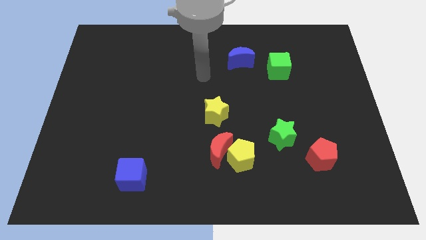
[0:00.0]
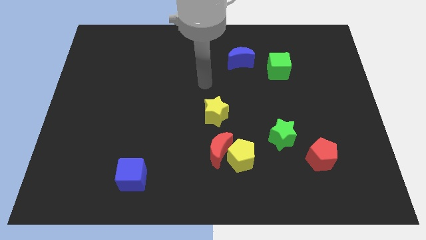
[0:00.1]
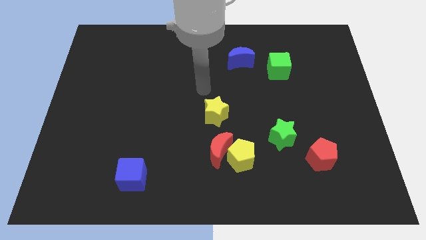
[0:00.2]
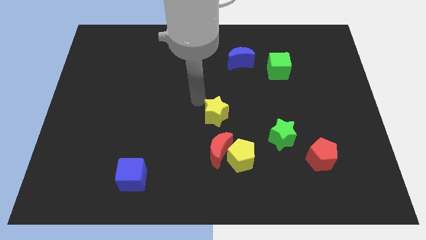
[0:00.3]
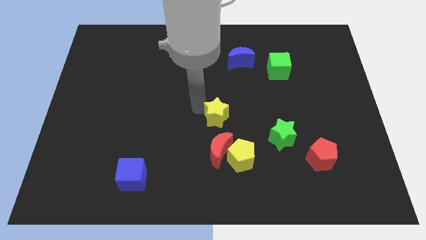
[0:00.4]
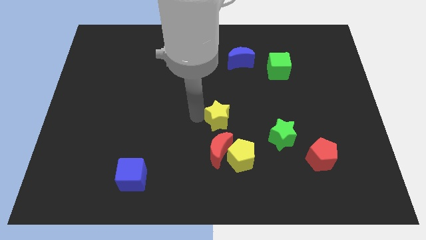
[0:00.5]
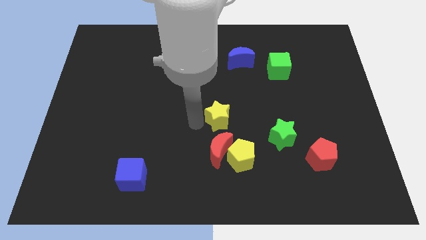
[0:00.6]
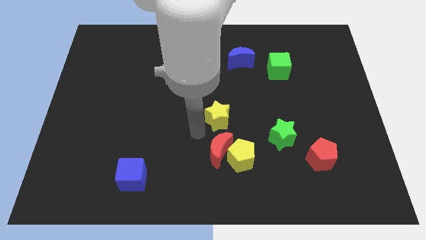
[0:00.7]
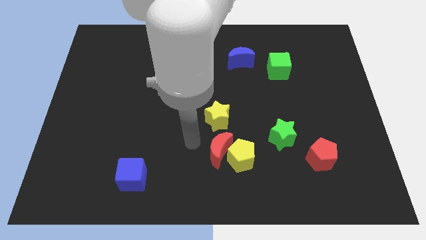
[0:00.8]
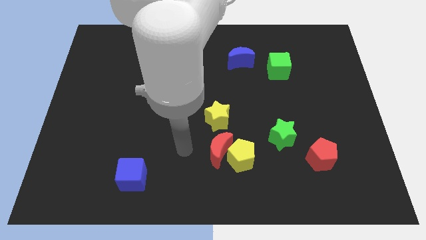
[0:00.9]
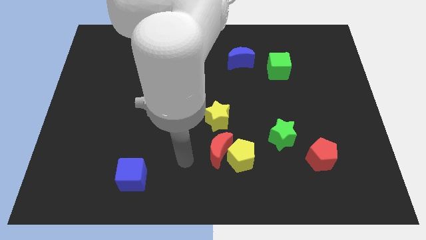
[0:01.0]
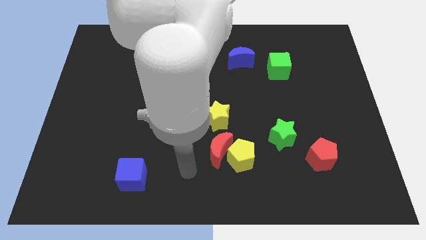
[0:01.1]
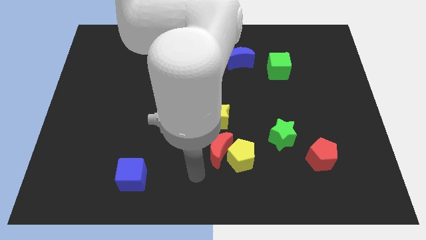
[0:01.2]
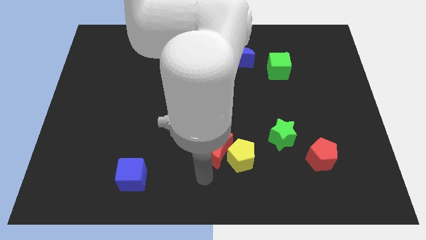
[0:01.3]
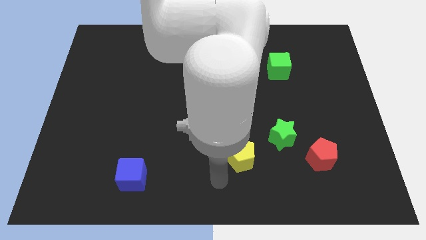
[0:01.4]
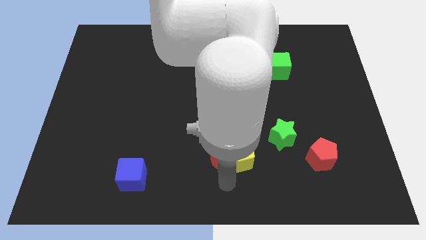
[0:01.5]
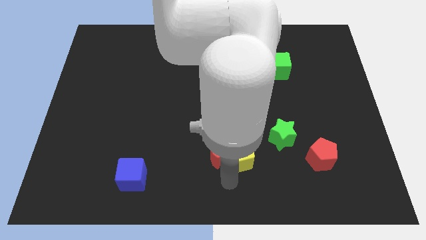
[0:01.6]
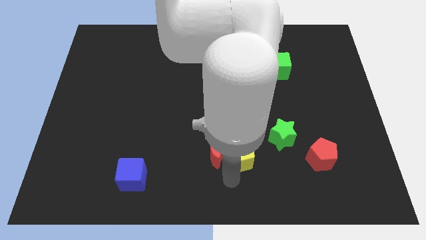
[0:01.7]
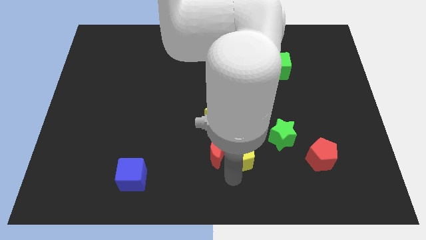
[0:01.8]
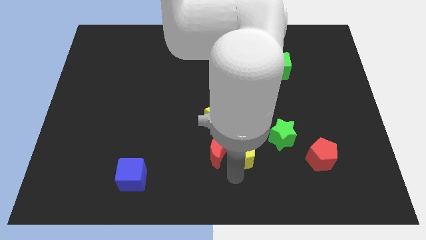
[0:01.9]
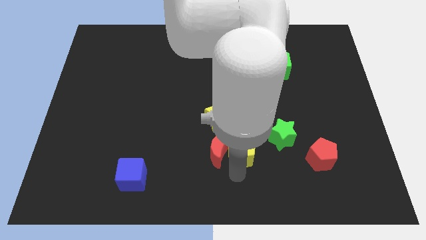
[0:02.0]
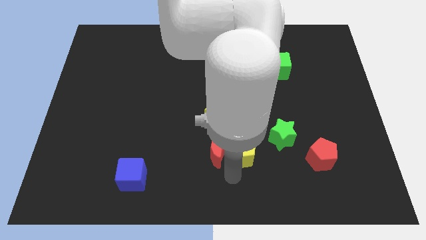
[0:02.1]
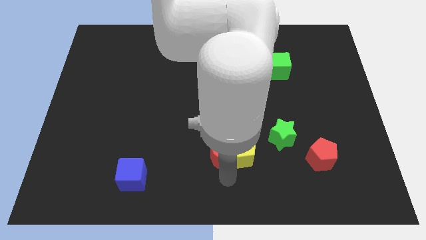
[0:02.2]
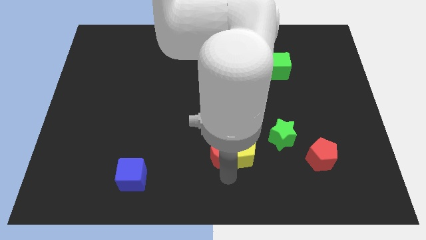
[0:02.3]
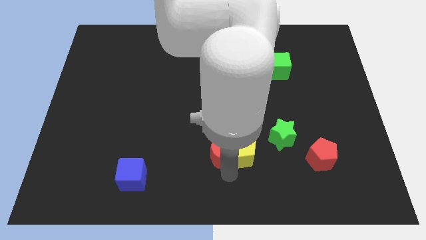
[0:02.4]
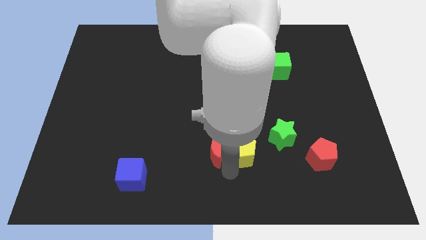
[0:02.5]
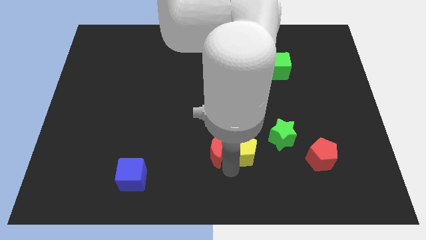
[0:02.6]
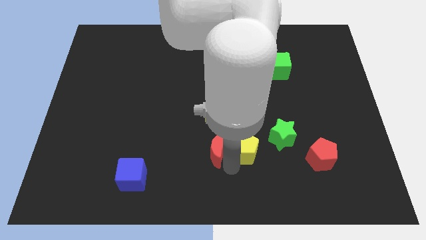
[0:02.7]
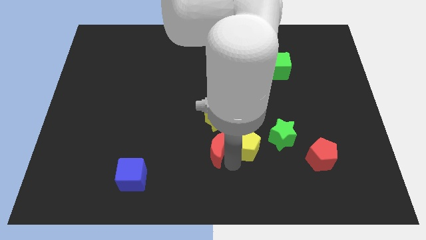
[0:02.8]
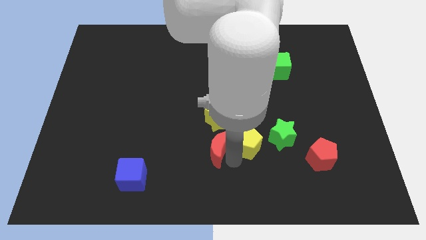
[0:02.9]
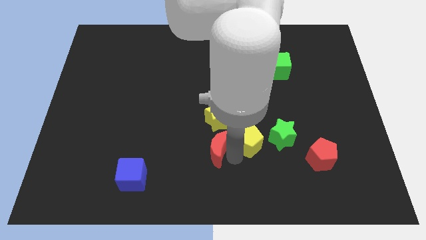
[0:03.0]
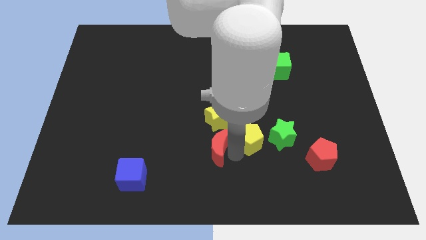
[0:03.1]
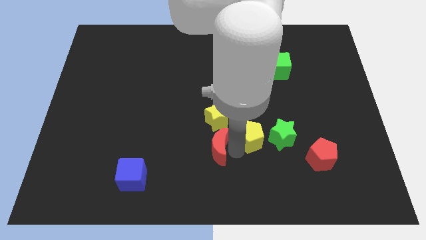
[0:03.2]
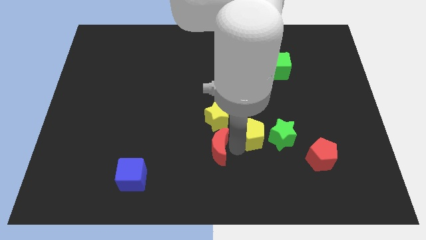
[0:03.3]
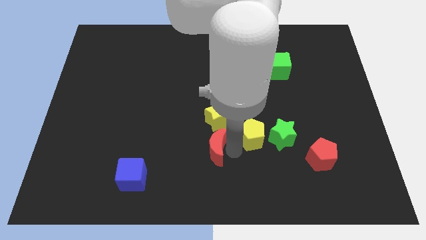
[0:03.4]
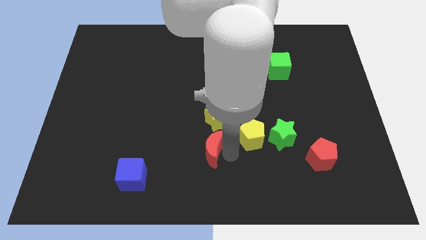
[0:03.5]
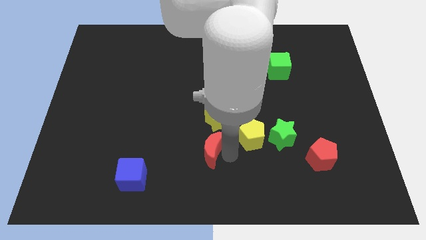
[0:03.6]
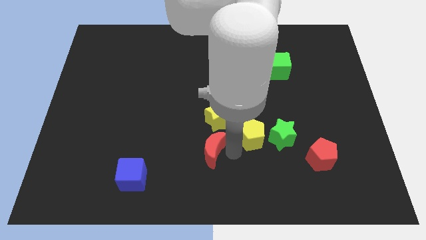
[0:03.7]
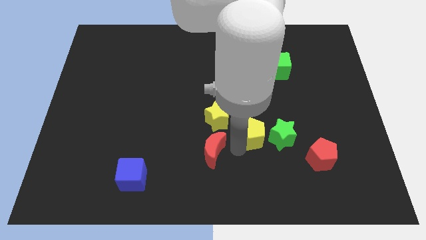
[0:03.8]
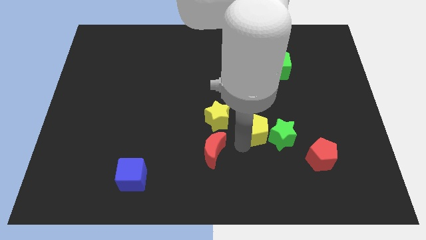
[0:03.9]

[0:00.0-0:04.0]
slightly push the yellow pentagon up and then right

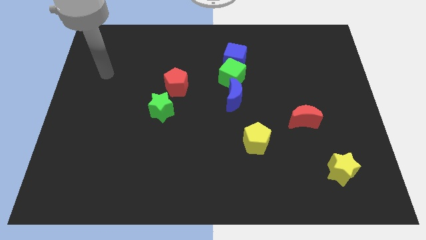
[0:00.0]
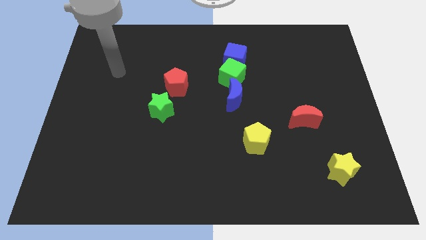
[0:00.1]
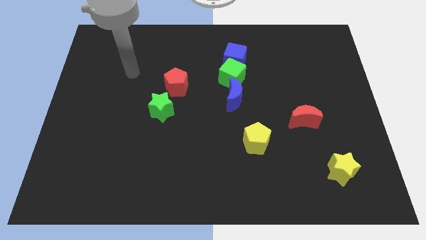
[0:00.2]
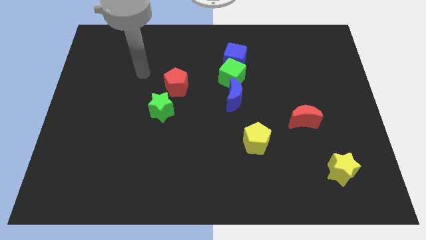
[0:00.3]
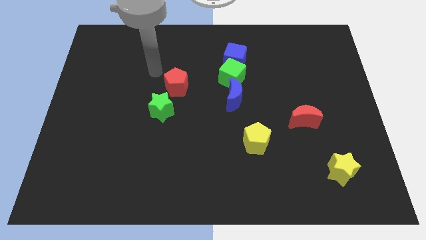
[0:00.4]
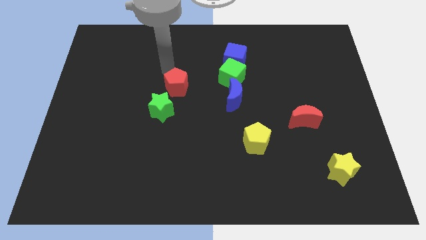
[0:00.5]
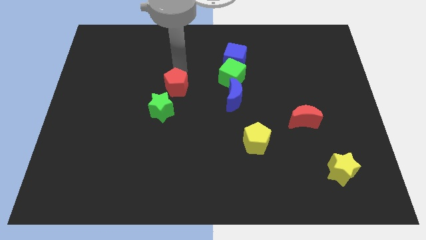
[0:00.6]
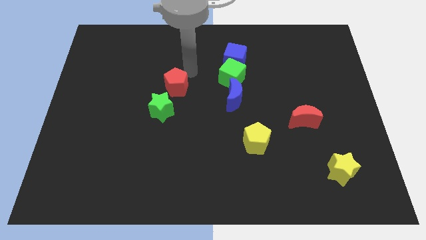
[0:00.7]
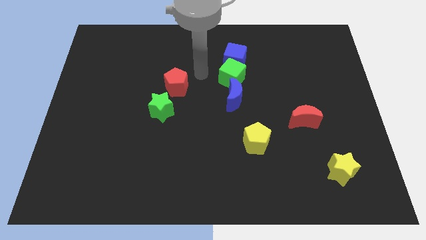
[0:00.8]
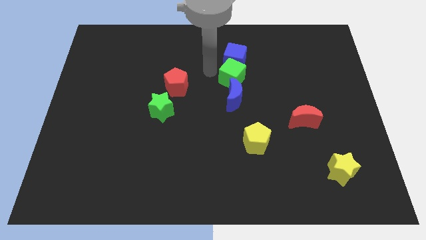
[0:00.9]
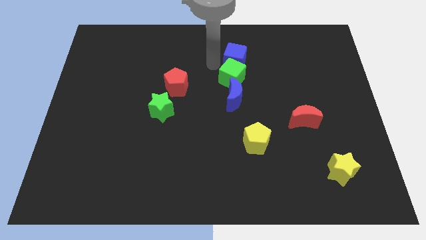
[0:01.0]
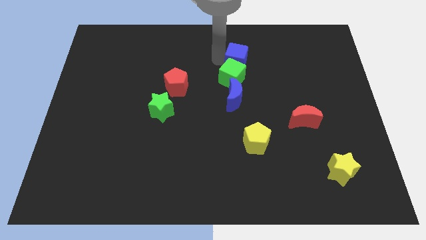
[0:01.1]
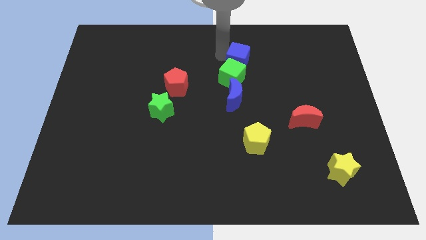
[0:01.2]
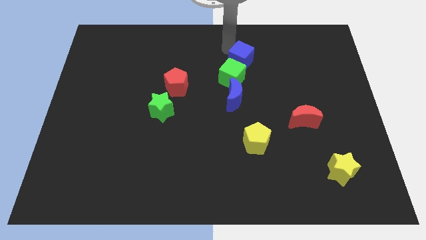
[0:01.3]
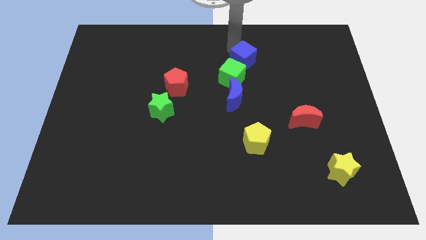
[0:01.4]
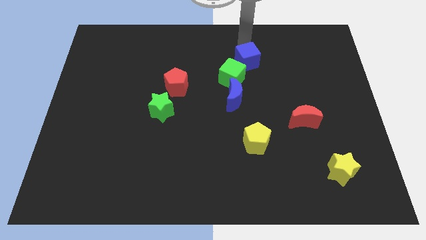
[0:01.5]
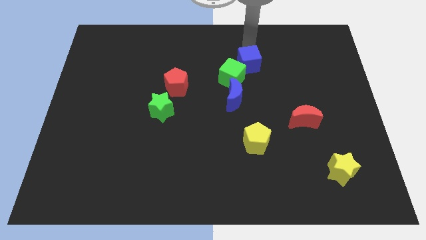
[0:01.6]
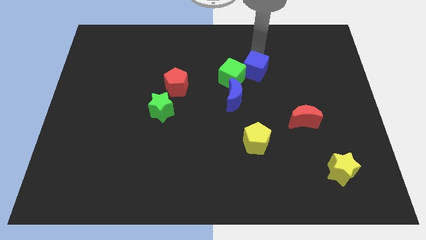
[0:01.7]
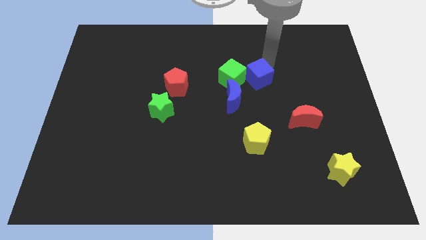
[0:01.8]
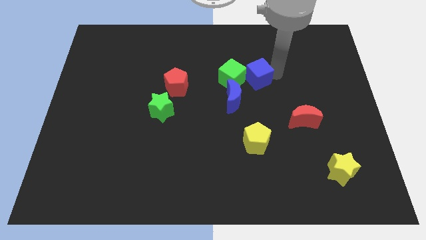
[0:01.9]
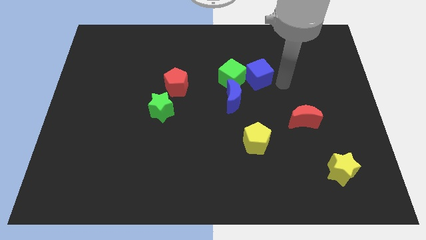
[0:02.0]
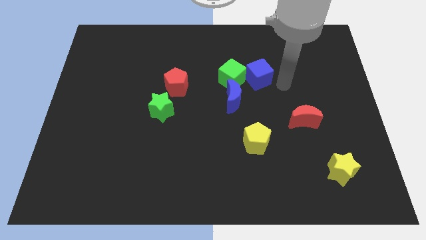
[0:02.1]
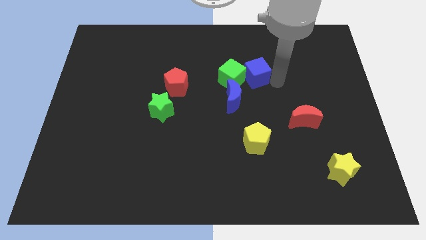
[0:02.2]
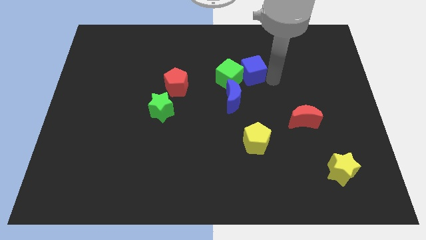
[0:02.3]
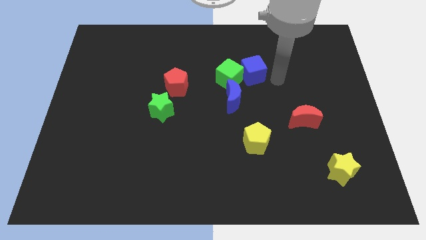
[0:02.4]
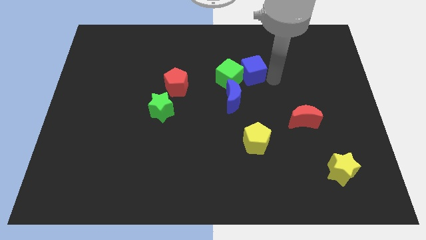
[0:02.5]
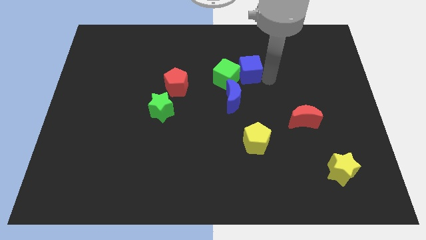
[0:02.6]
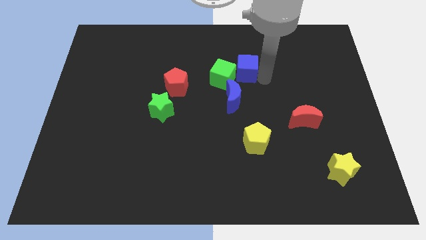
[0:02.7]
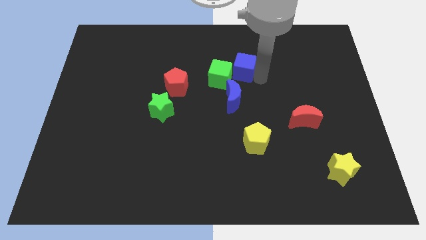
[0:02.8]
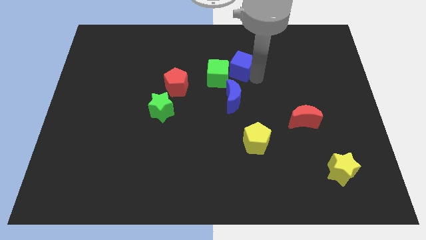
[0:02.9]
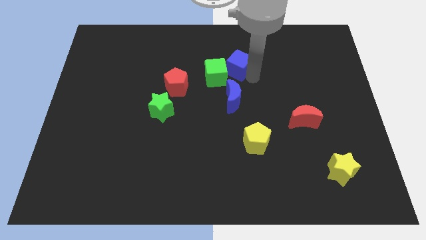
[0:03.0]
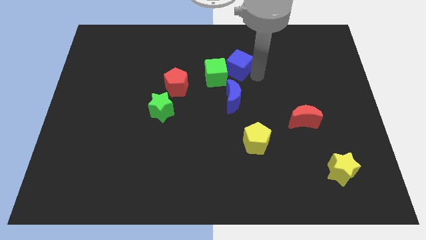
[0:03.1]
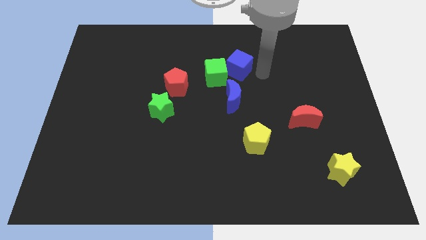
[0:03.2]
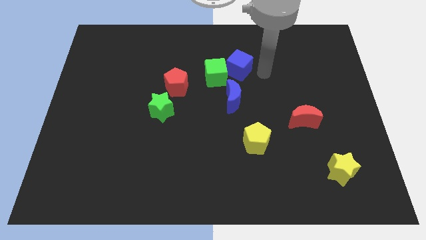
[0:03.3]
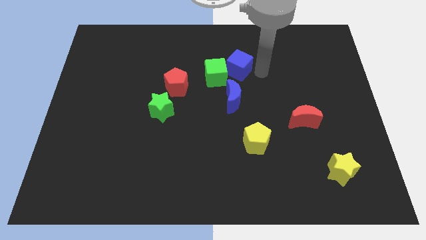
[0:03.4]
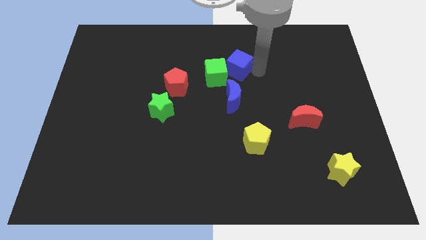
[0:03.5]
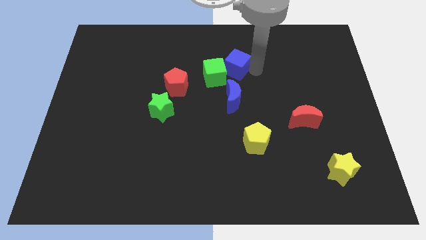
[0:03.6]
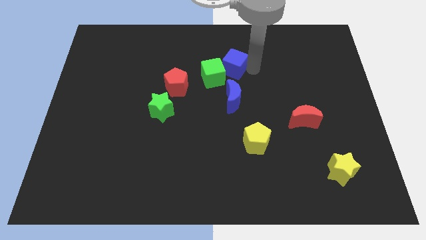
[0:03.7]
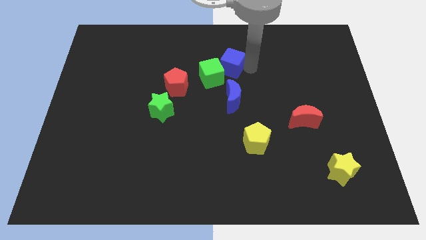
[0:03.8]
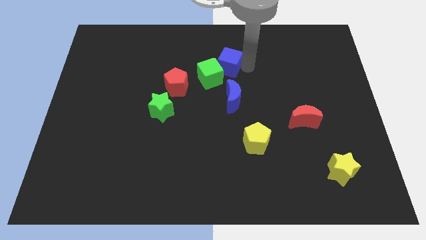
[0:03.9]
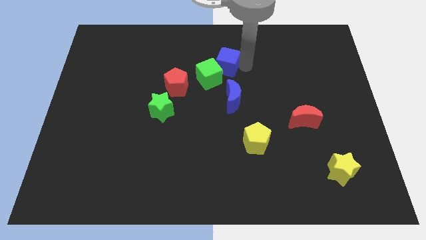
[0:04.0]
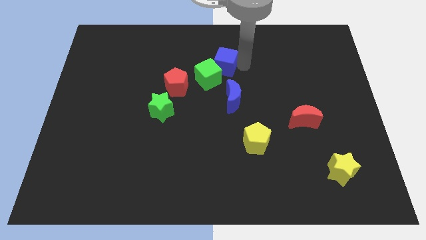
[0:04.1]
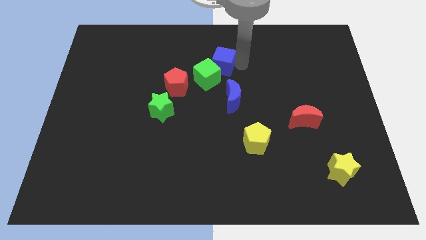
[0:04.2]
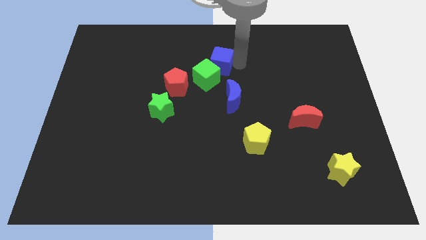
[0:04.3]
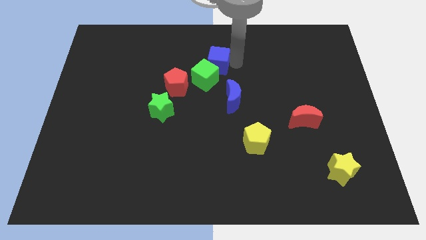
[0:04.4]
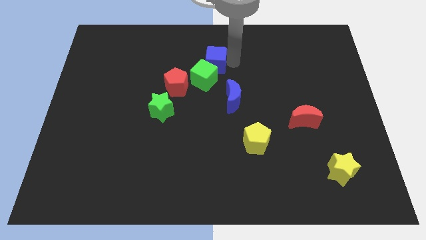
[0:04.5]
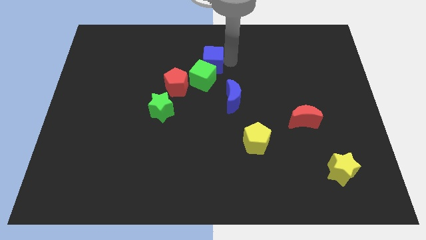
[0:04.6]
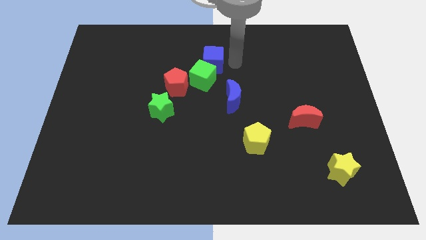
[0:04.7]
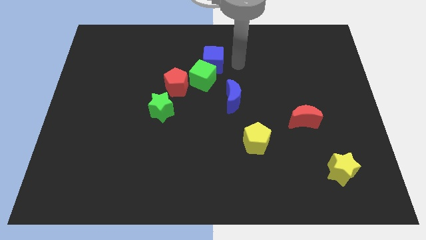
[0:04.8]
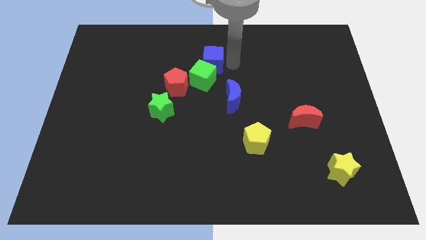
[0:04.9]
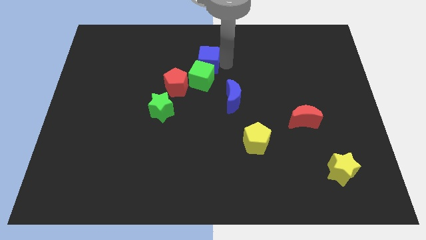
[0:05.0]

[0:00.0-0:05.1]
slightly move the blue cube to the left
